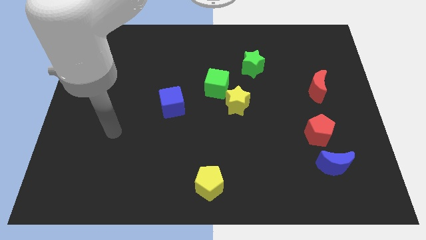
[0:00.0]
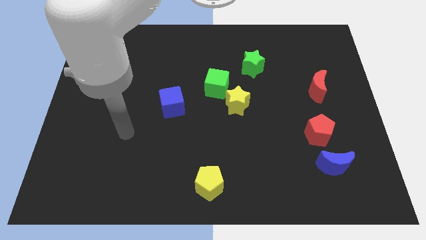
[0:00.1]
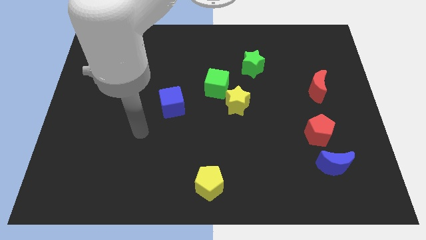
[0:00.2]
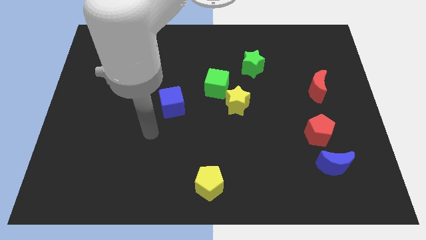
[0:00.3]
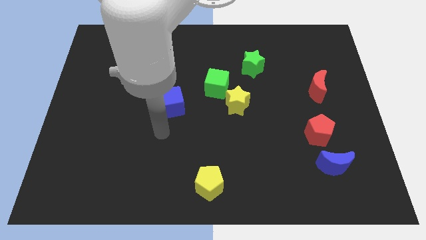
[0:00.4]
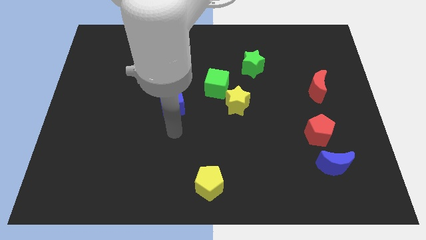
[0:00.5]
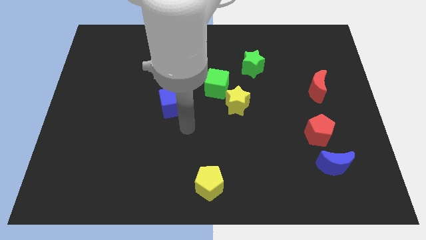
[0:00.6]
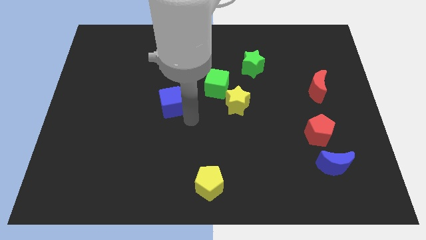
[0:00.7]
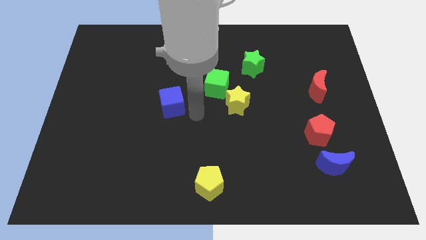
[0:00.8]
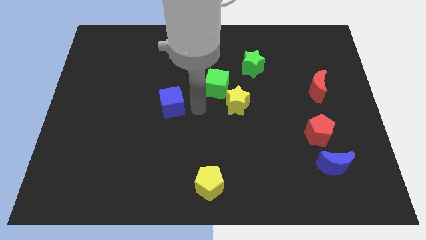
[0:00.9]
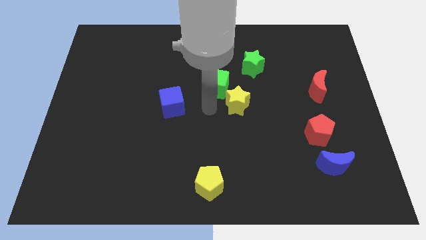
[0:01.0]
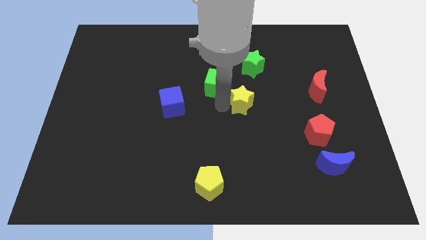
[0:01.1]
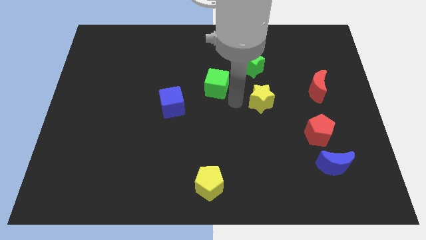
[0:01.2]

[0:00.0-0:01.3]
move the green cube away from the yellow star

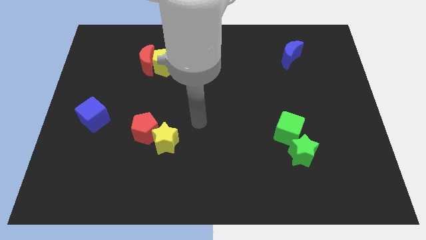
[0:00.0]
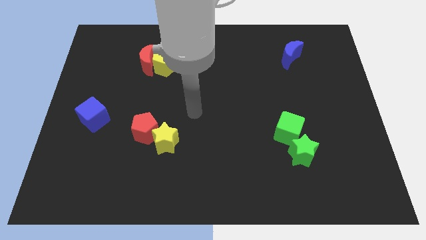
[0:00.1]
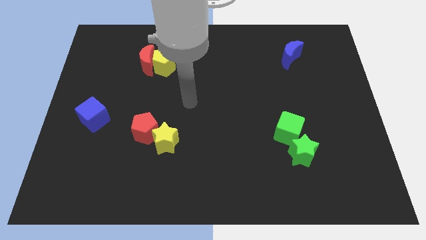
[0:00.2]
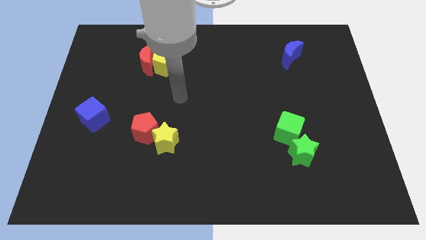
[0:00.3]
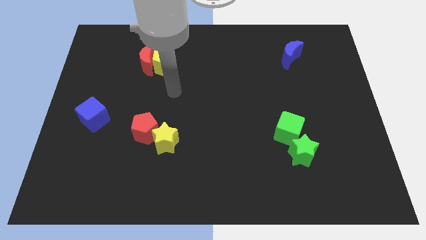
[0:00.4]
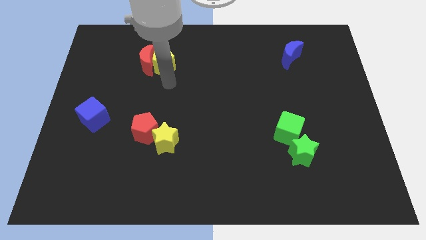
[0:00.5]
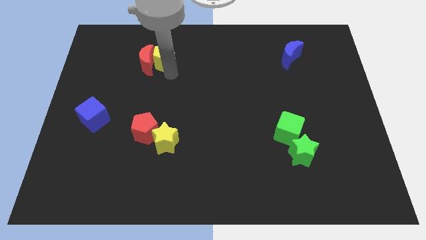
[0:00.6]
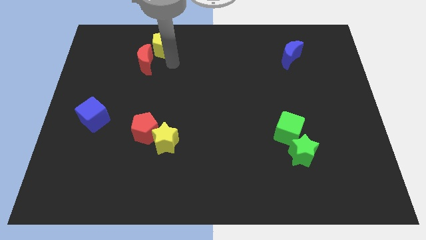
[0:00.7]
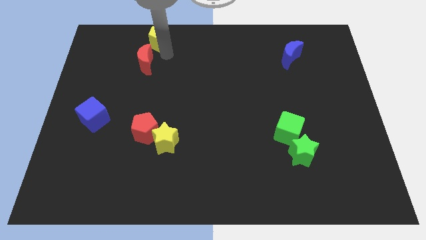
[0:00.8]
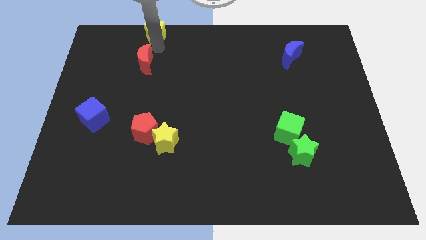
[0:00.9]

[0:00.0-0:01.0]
move the red moon away from the yellow pentagon

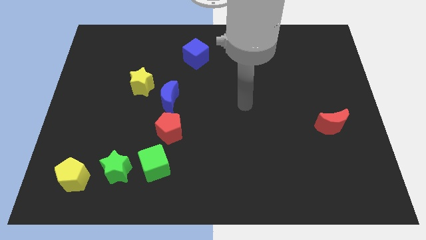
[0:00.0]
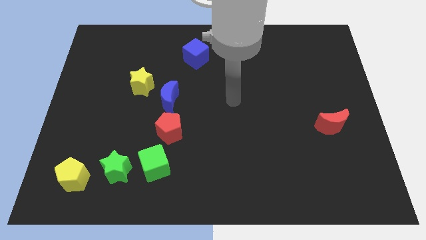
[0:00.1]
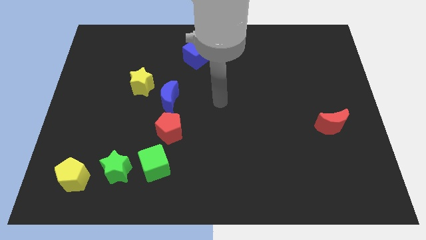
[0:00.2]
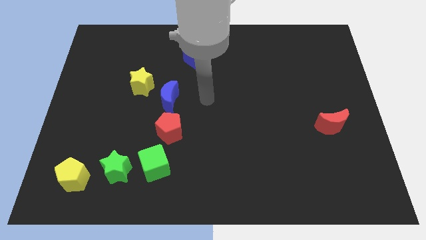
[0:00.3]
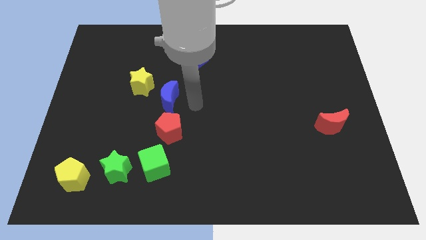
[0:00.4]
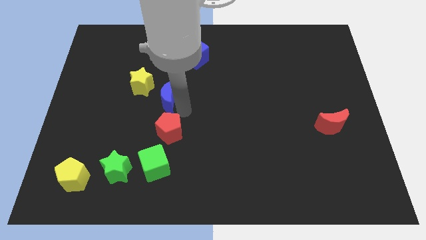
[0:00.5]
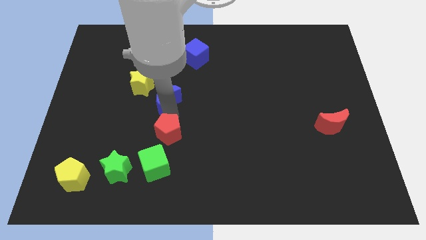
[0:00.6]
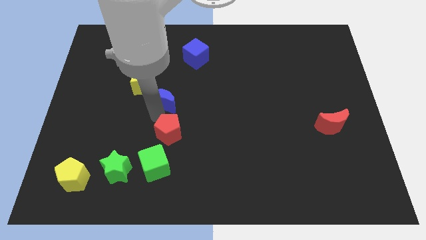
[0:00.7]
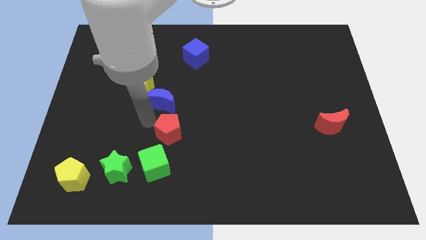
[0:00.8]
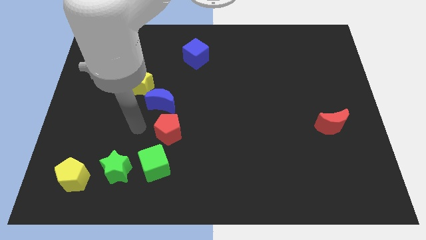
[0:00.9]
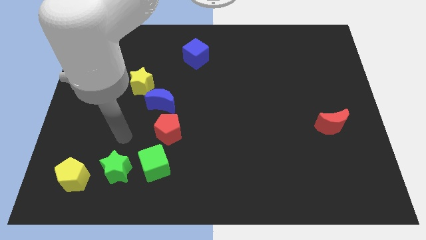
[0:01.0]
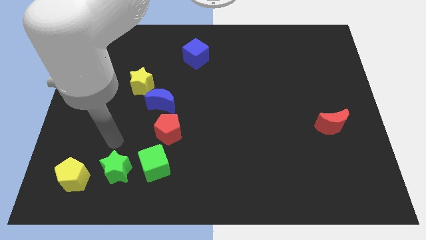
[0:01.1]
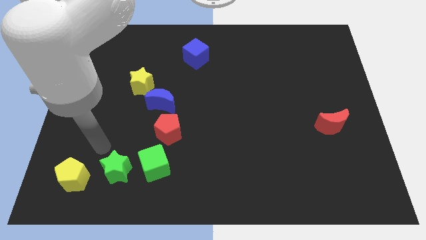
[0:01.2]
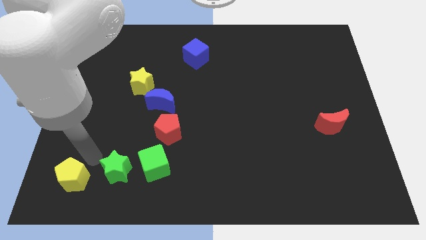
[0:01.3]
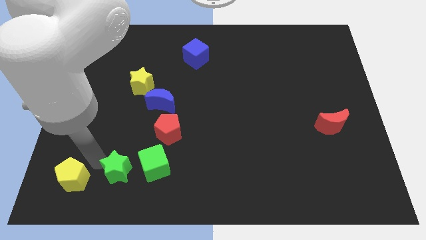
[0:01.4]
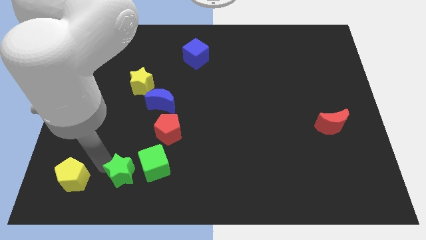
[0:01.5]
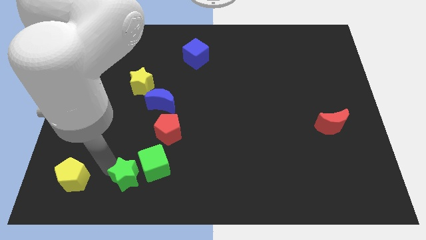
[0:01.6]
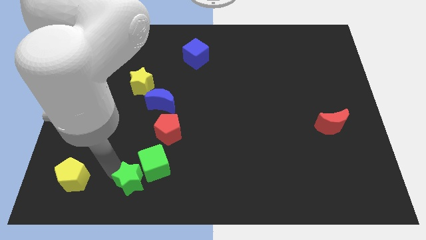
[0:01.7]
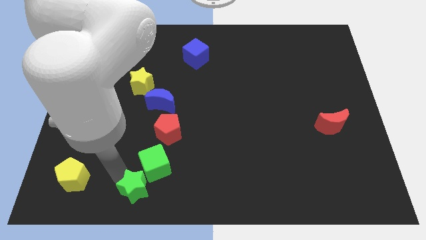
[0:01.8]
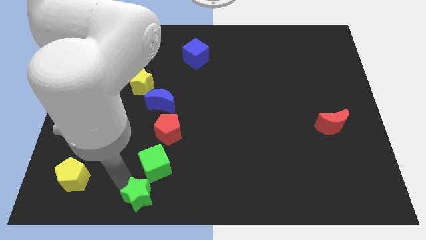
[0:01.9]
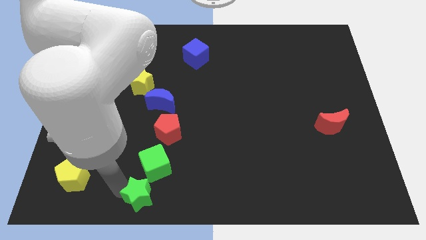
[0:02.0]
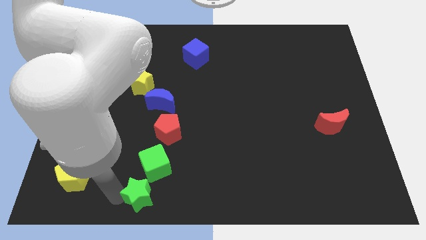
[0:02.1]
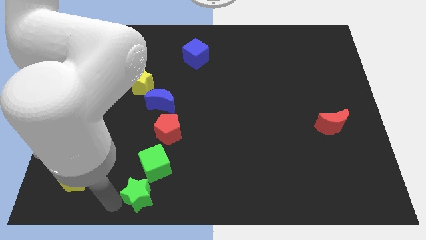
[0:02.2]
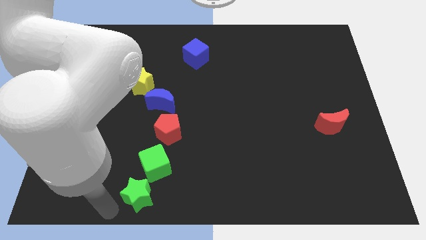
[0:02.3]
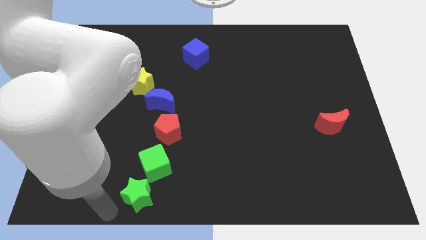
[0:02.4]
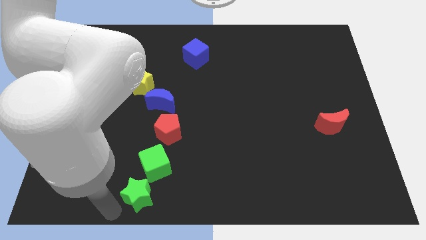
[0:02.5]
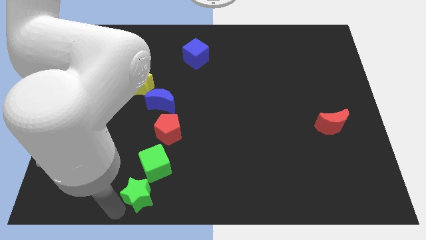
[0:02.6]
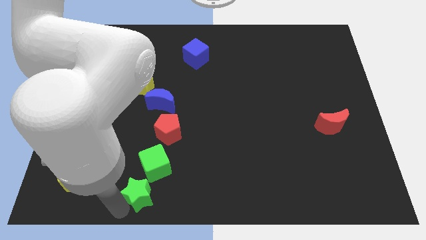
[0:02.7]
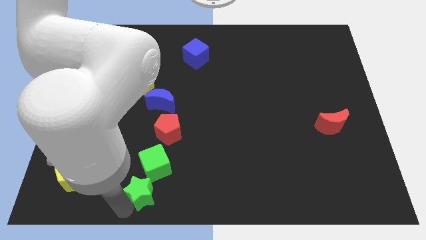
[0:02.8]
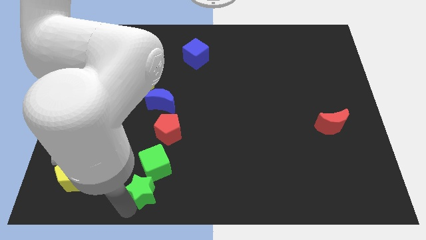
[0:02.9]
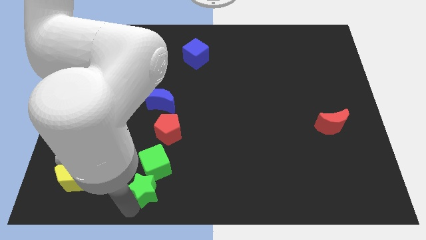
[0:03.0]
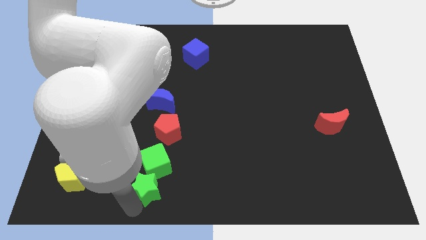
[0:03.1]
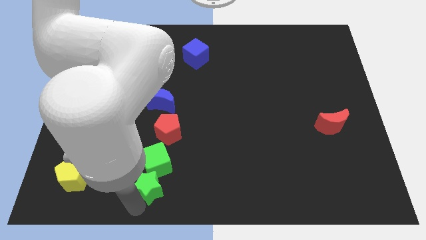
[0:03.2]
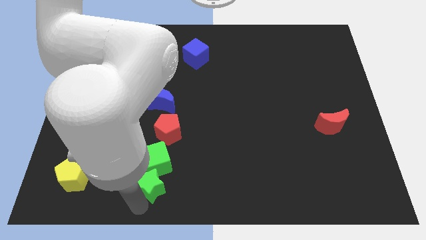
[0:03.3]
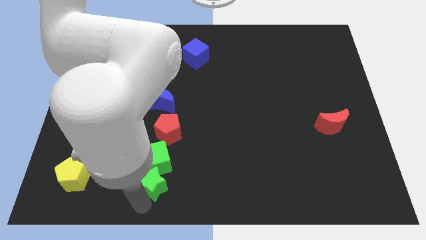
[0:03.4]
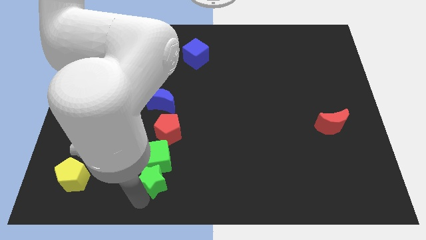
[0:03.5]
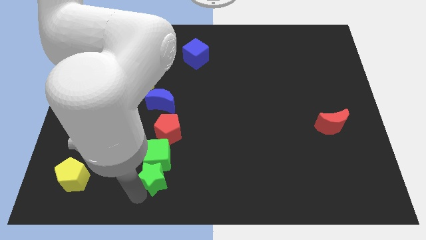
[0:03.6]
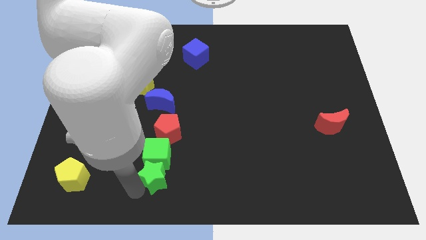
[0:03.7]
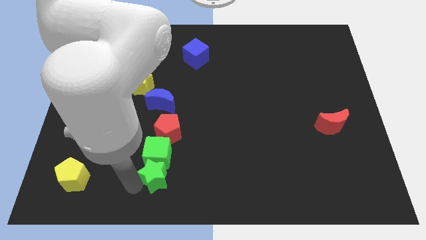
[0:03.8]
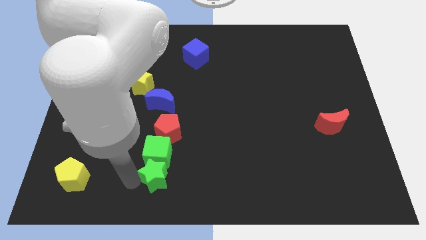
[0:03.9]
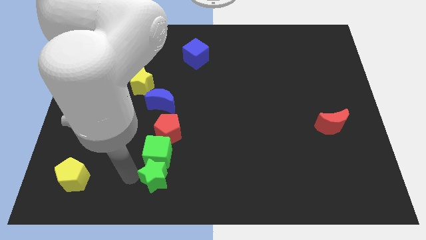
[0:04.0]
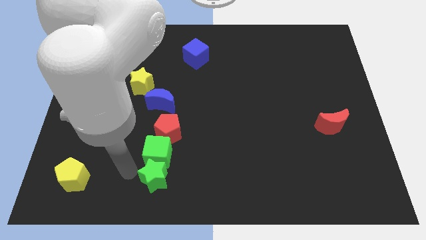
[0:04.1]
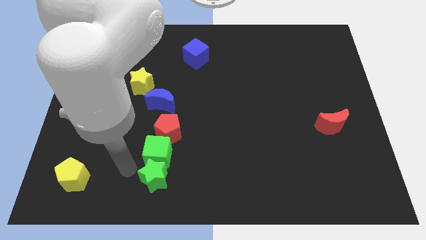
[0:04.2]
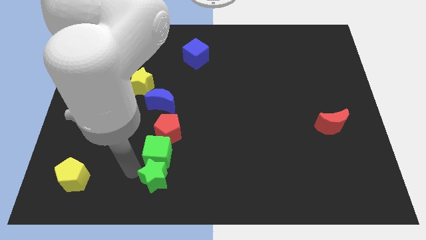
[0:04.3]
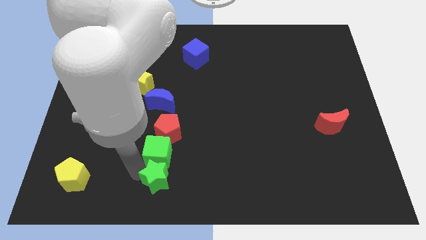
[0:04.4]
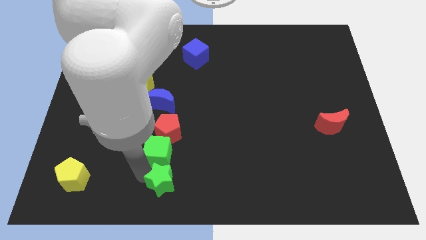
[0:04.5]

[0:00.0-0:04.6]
pull the green star apart from the green cube and yellow pentagon

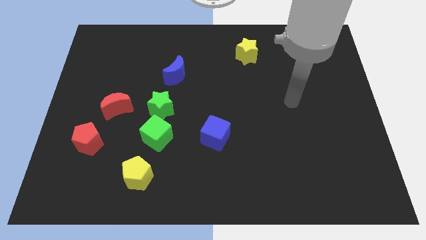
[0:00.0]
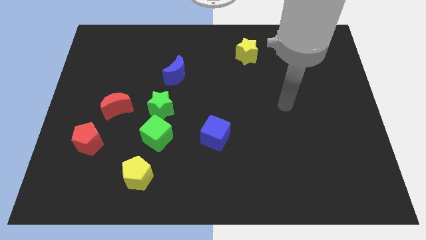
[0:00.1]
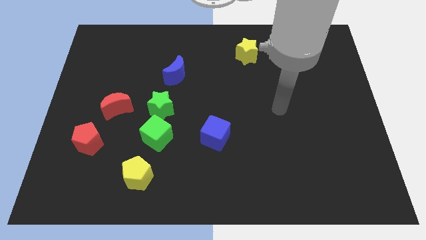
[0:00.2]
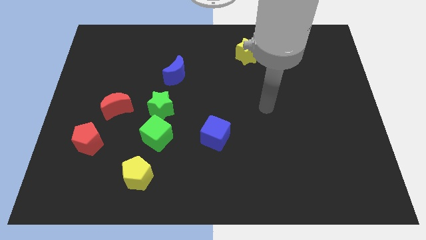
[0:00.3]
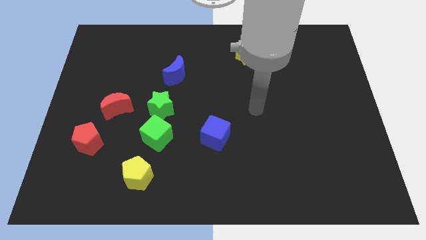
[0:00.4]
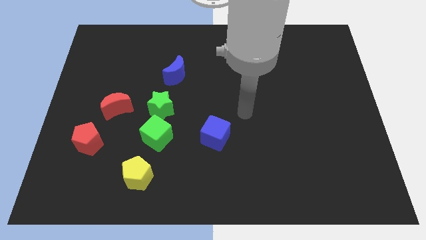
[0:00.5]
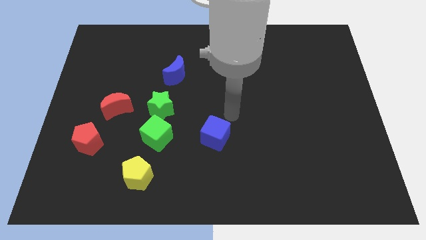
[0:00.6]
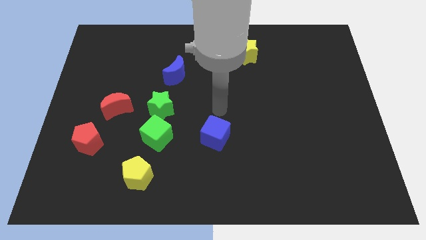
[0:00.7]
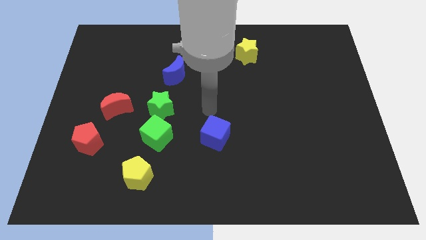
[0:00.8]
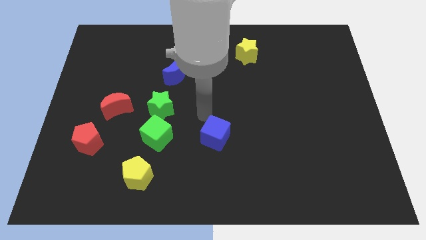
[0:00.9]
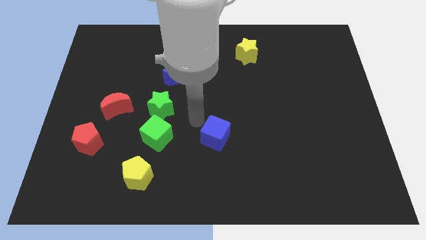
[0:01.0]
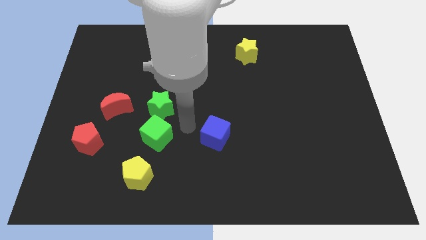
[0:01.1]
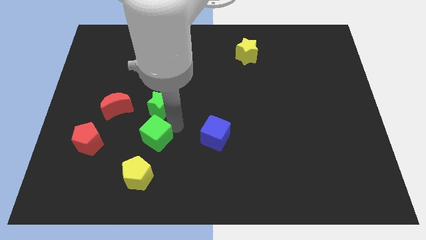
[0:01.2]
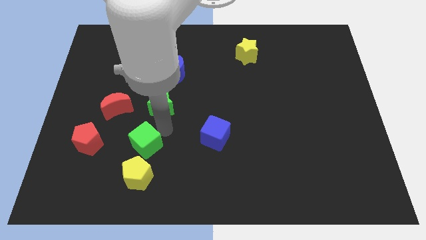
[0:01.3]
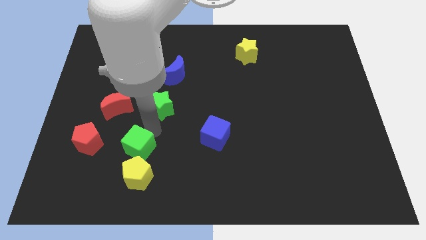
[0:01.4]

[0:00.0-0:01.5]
move the green star away from the green cube

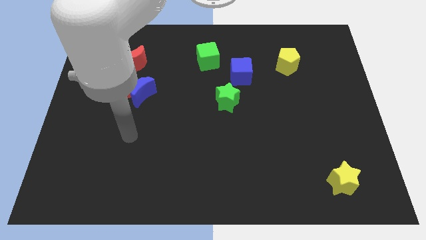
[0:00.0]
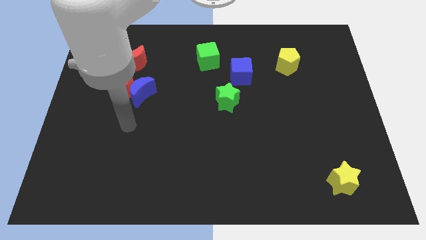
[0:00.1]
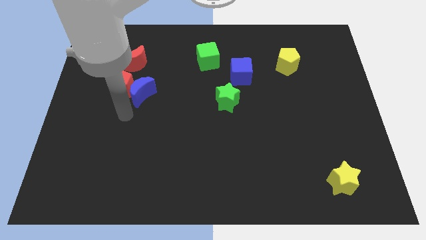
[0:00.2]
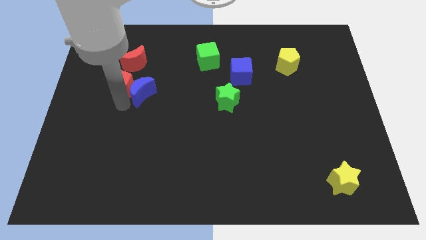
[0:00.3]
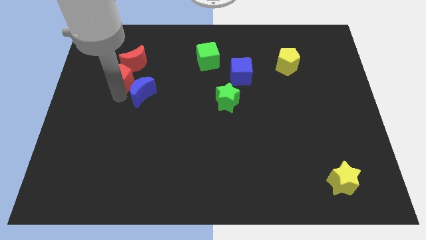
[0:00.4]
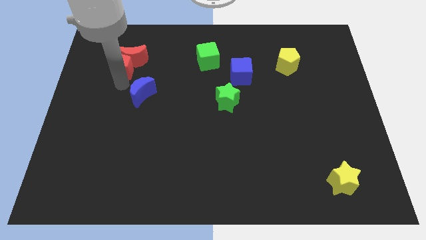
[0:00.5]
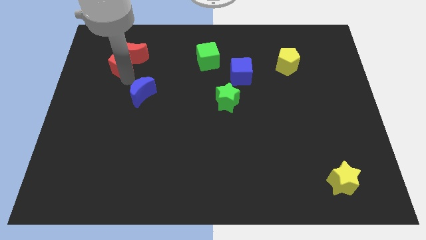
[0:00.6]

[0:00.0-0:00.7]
move the blue moon away from the red pentagon

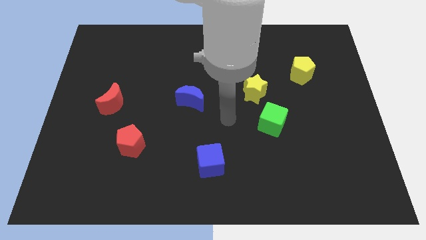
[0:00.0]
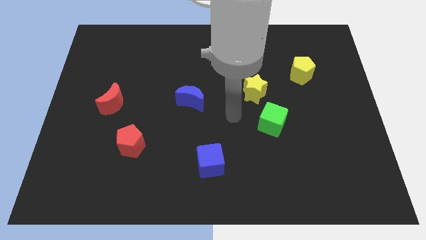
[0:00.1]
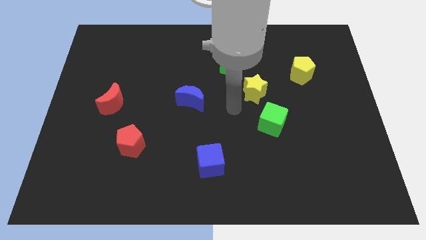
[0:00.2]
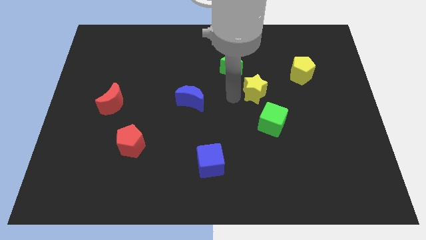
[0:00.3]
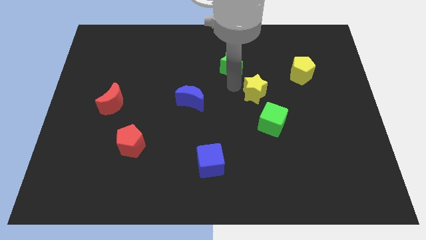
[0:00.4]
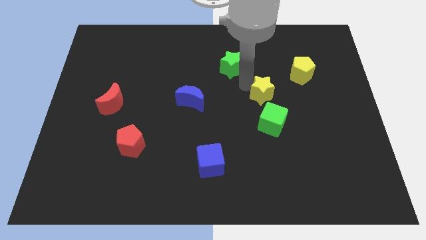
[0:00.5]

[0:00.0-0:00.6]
pull the green star apart from the yellow star
